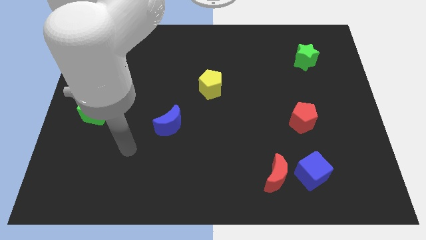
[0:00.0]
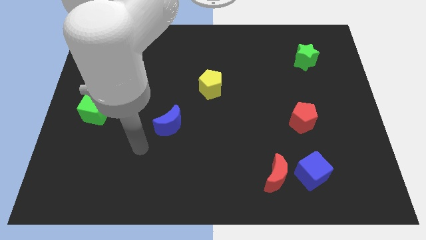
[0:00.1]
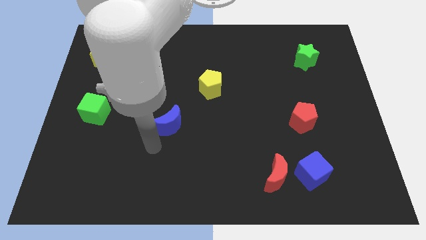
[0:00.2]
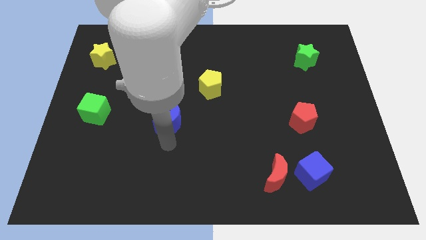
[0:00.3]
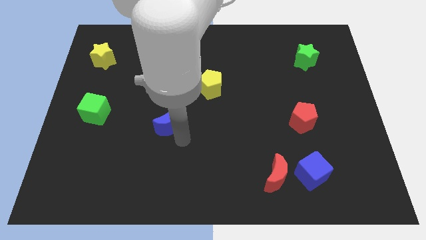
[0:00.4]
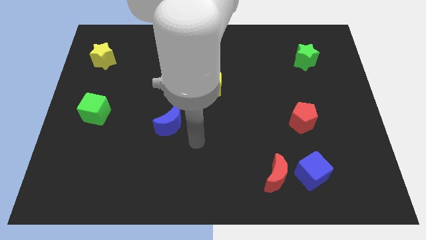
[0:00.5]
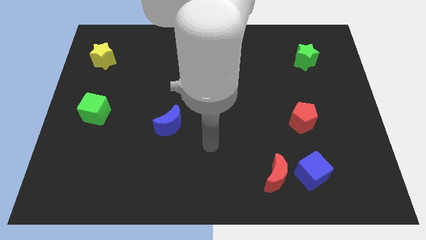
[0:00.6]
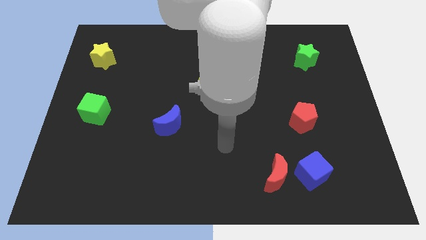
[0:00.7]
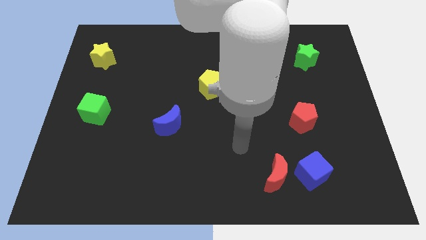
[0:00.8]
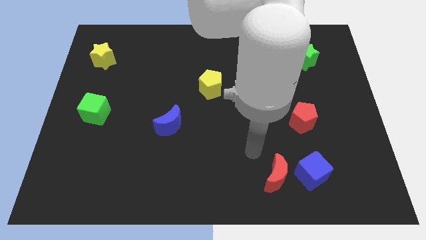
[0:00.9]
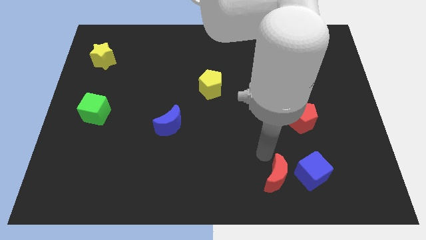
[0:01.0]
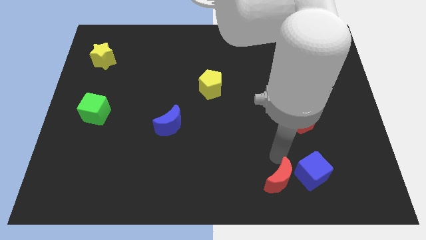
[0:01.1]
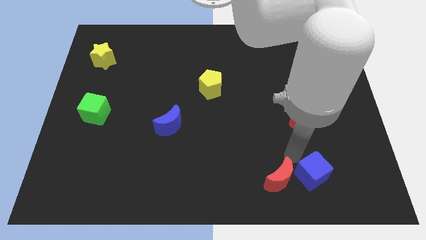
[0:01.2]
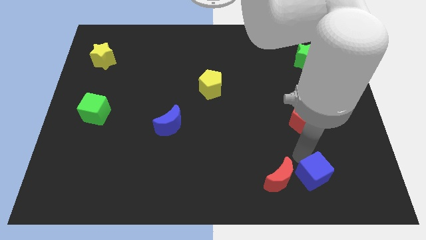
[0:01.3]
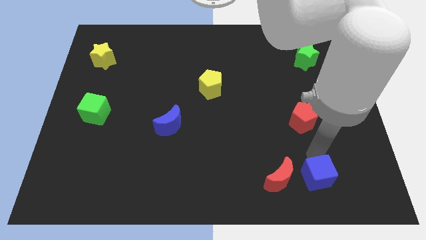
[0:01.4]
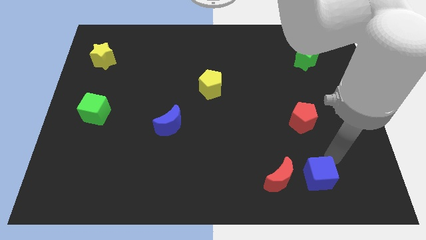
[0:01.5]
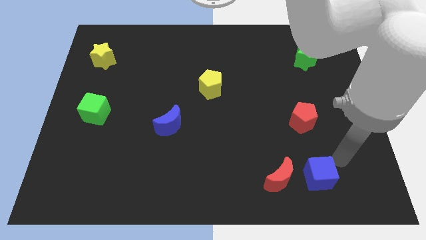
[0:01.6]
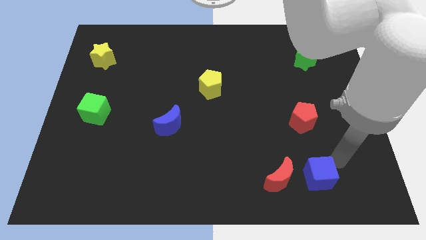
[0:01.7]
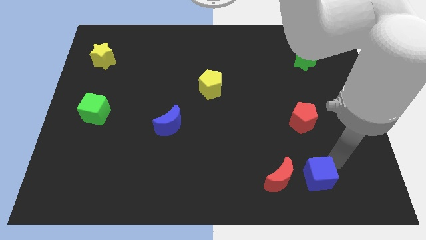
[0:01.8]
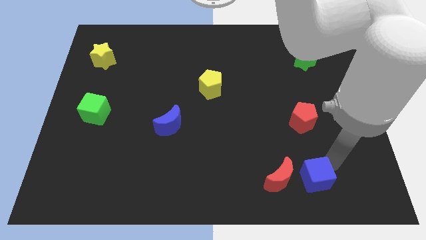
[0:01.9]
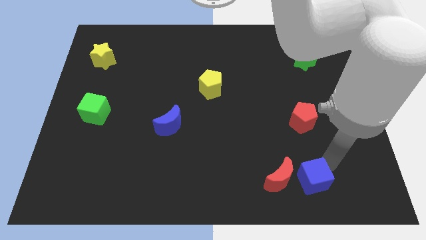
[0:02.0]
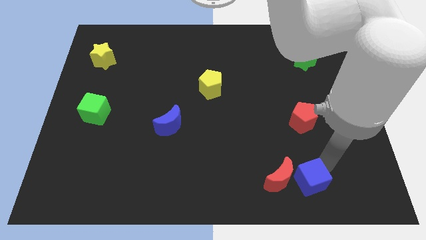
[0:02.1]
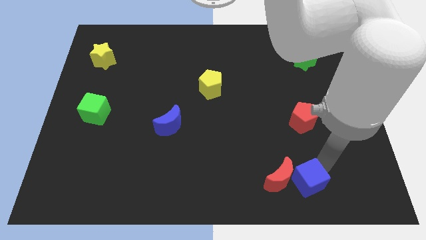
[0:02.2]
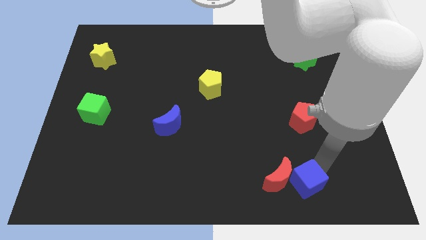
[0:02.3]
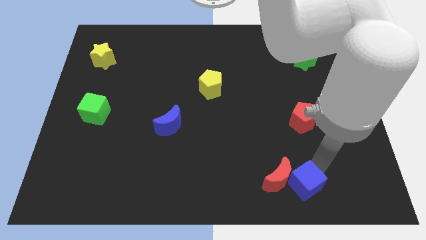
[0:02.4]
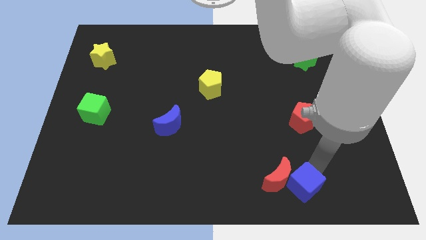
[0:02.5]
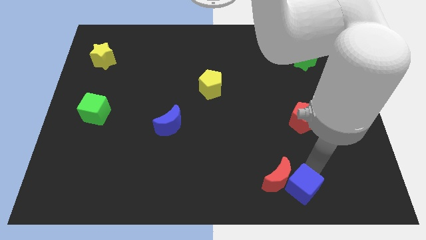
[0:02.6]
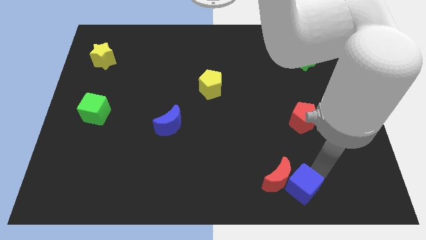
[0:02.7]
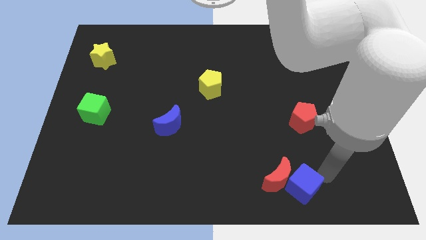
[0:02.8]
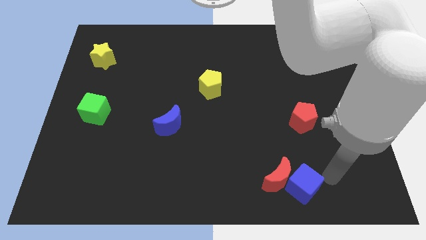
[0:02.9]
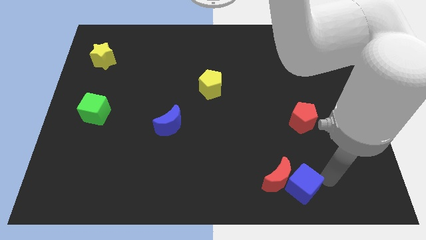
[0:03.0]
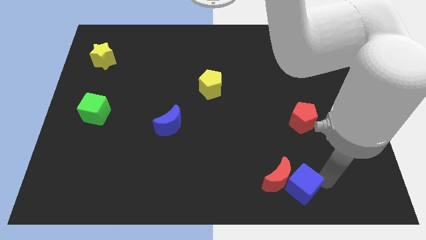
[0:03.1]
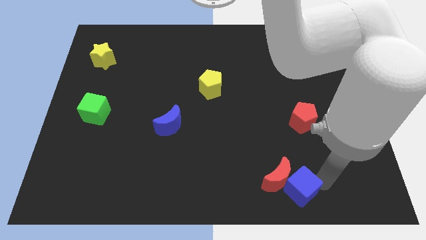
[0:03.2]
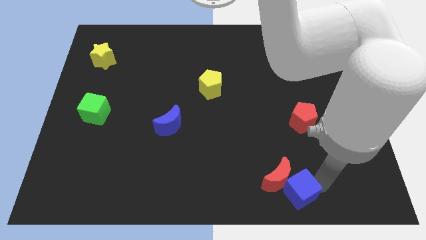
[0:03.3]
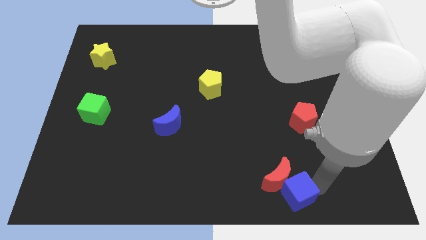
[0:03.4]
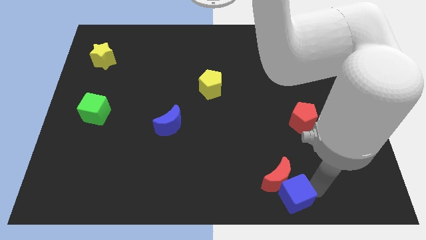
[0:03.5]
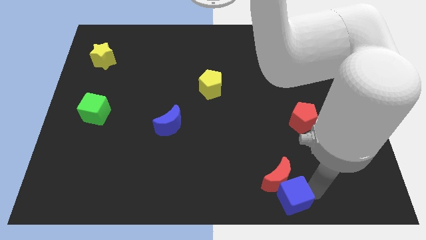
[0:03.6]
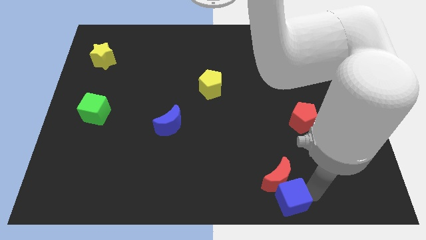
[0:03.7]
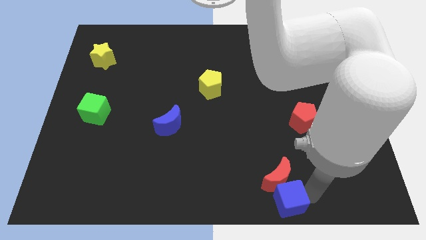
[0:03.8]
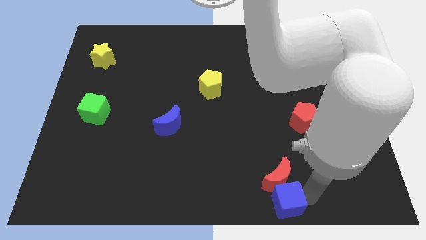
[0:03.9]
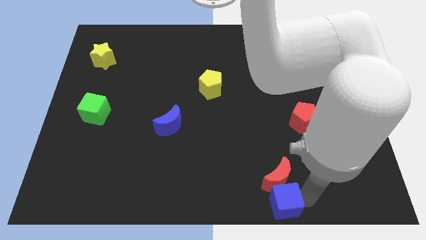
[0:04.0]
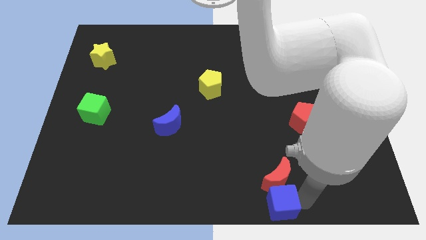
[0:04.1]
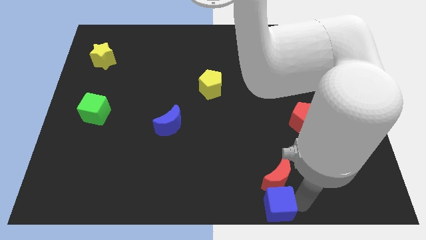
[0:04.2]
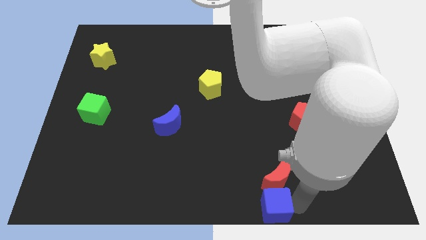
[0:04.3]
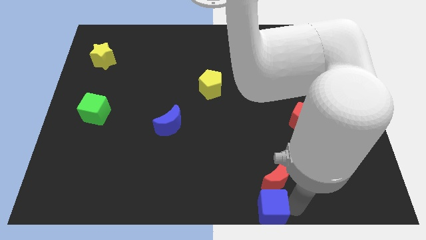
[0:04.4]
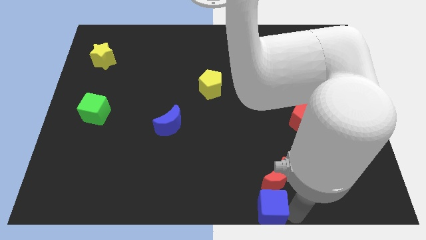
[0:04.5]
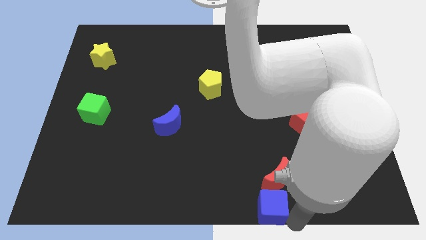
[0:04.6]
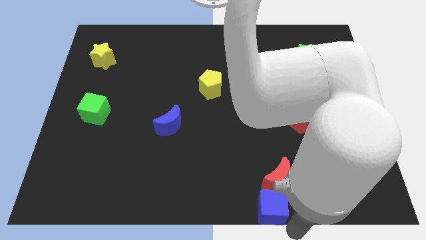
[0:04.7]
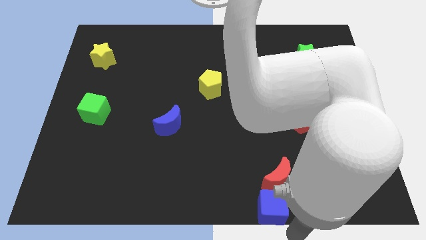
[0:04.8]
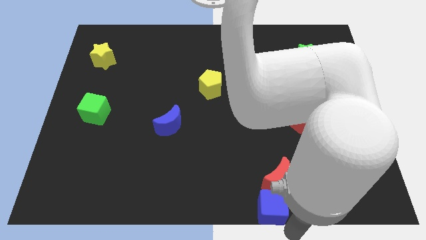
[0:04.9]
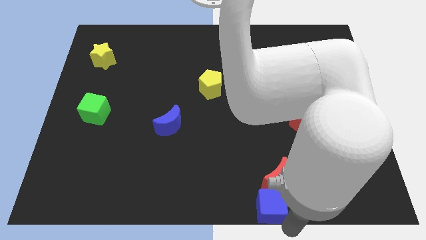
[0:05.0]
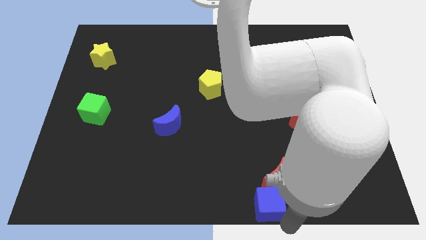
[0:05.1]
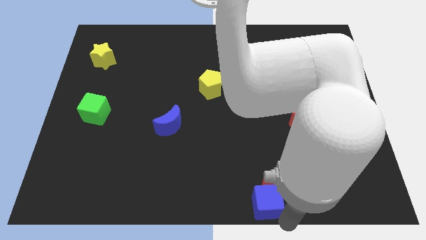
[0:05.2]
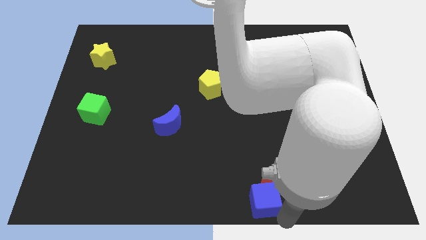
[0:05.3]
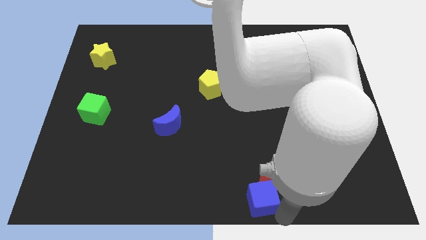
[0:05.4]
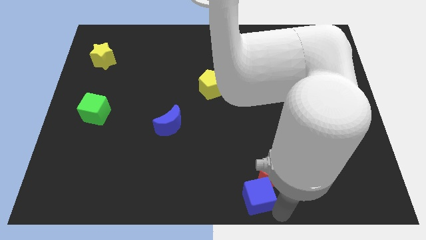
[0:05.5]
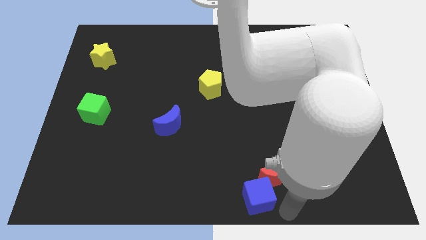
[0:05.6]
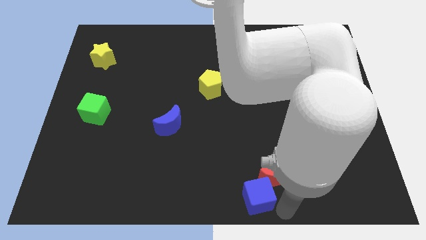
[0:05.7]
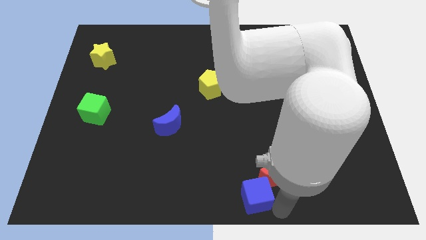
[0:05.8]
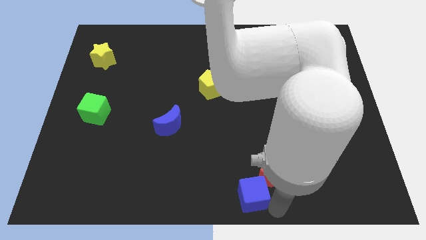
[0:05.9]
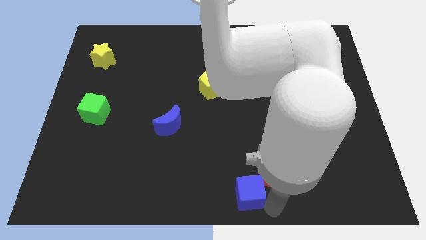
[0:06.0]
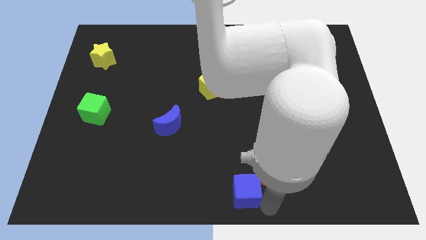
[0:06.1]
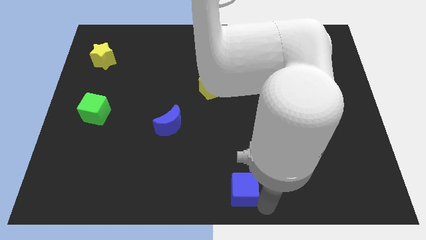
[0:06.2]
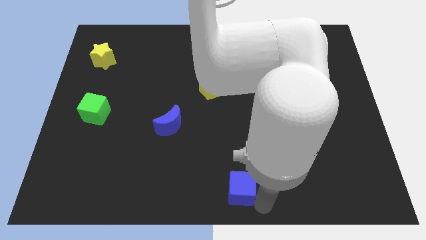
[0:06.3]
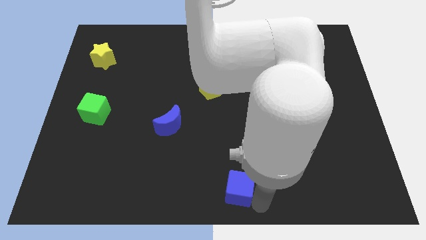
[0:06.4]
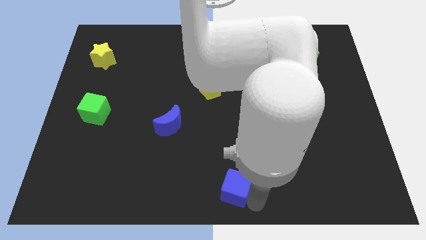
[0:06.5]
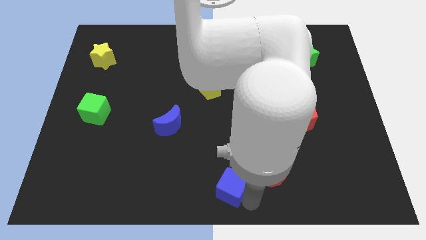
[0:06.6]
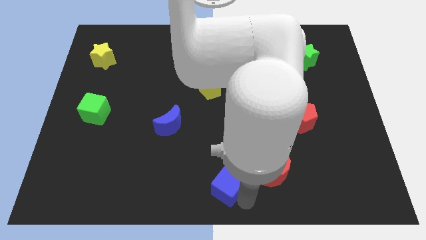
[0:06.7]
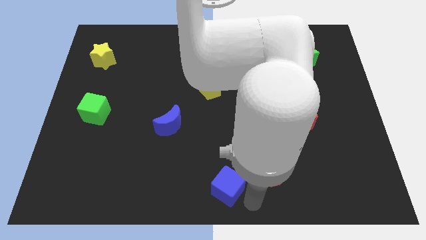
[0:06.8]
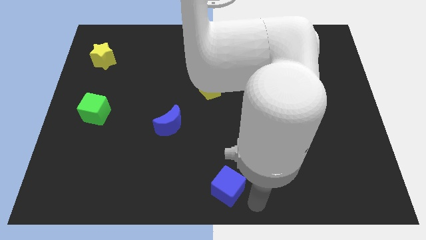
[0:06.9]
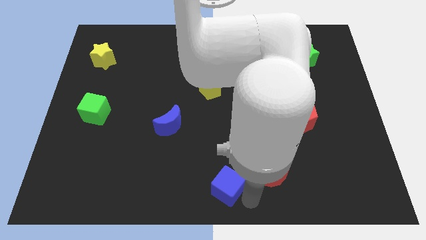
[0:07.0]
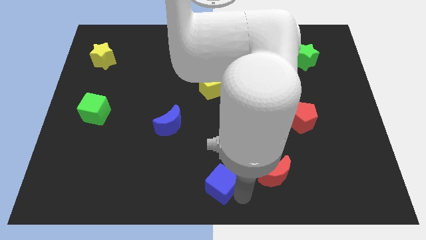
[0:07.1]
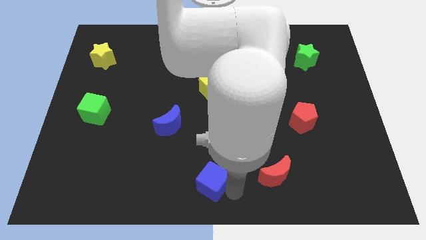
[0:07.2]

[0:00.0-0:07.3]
slide the blue cube to the left

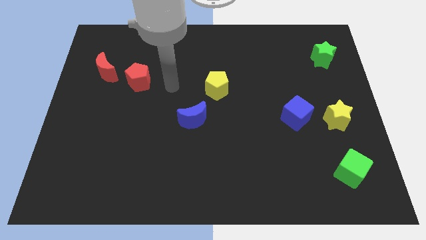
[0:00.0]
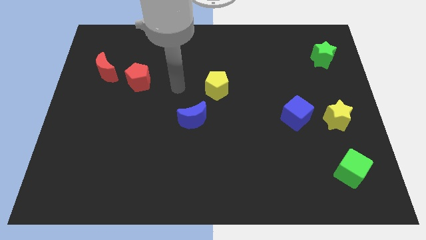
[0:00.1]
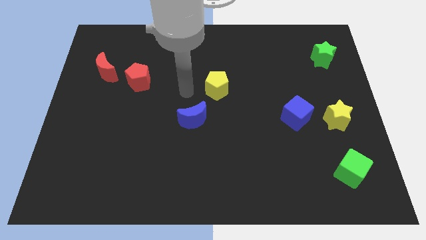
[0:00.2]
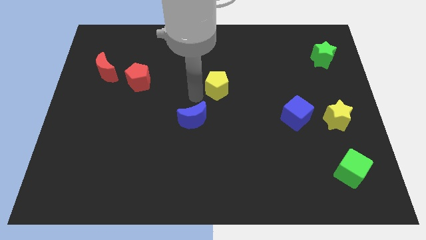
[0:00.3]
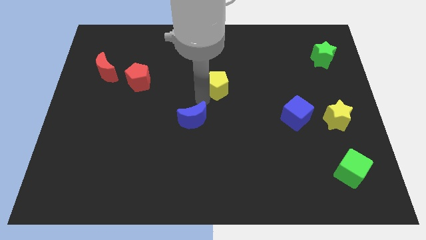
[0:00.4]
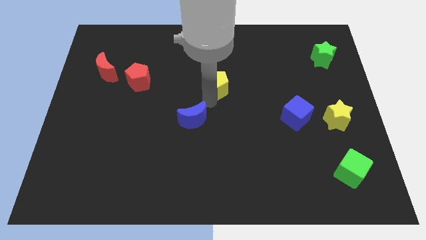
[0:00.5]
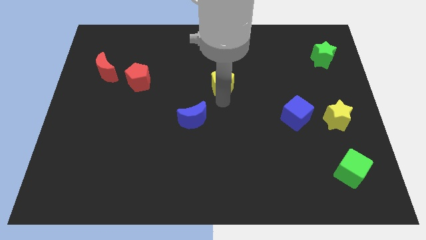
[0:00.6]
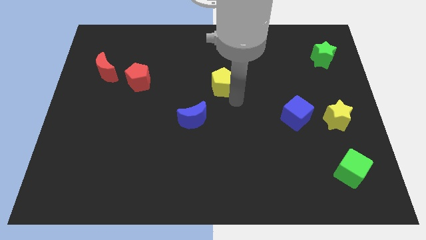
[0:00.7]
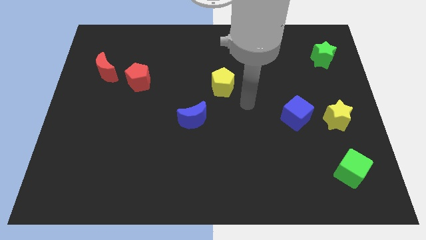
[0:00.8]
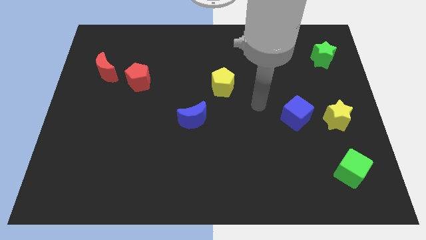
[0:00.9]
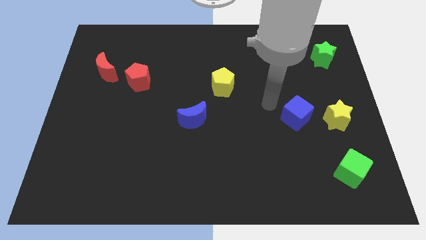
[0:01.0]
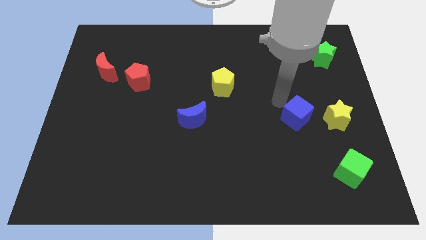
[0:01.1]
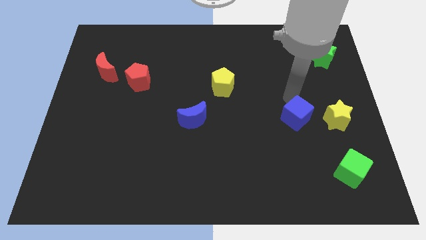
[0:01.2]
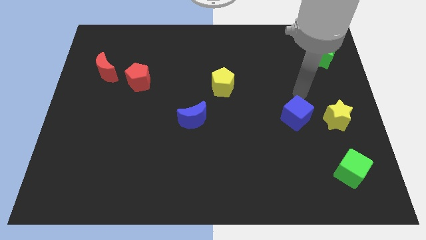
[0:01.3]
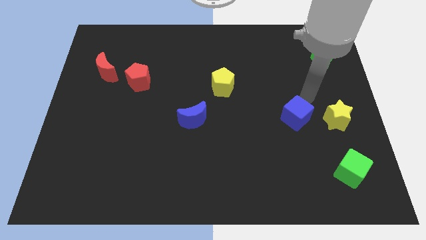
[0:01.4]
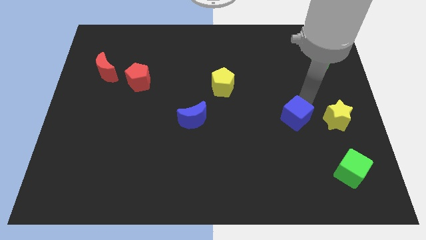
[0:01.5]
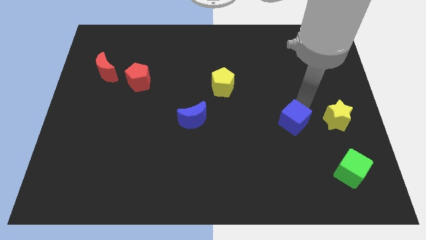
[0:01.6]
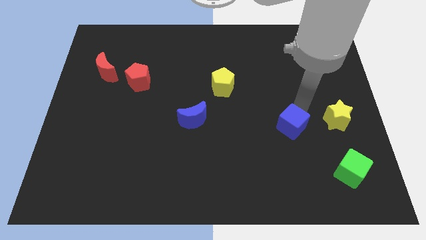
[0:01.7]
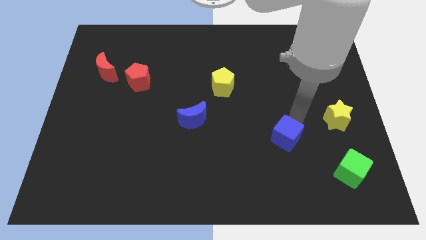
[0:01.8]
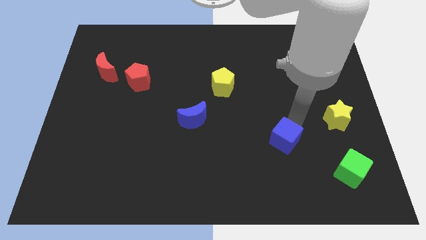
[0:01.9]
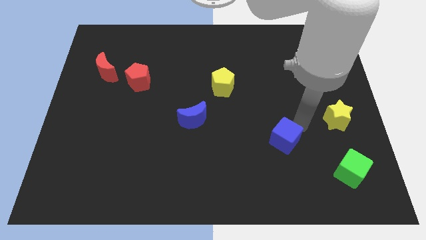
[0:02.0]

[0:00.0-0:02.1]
push the blue cube a little downwards and left diagonally
